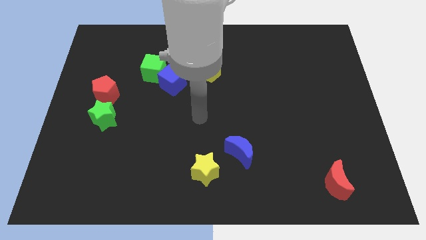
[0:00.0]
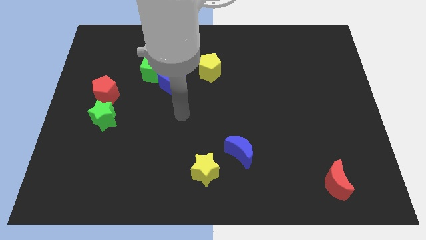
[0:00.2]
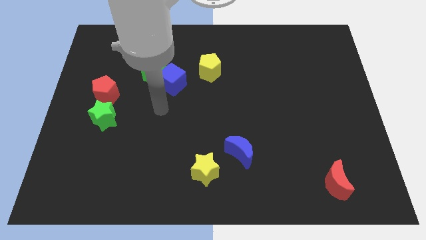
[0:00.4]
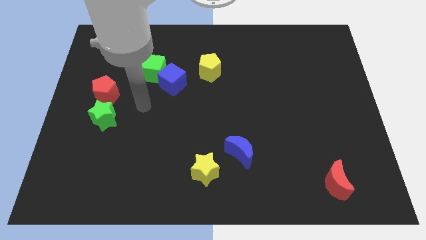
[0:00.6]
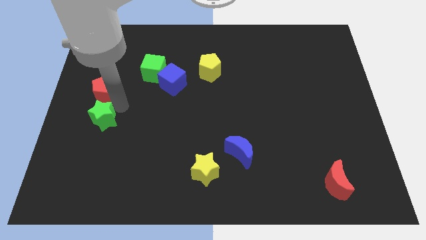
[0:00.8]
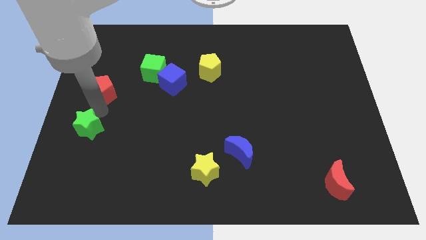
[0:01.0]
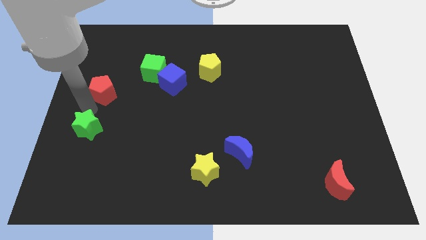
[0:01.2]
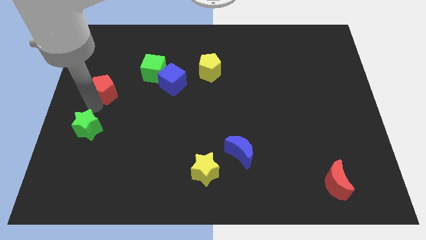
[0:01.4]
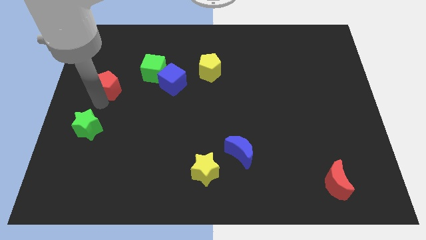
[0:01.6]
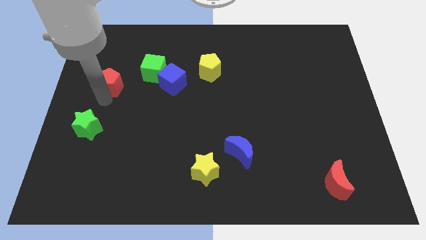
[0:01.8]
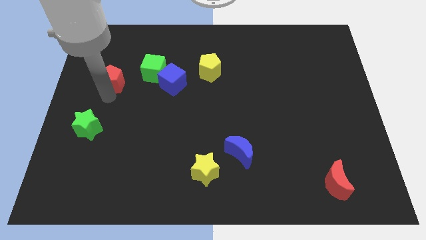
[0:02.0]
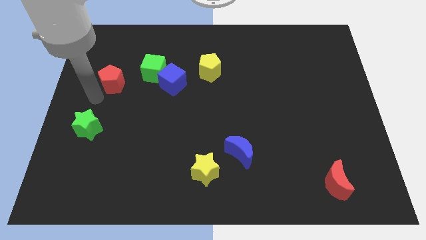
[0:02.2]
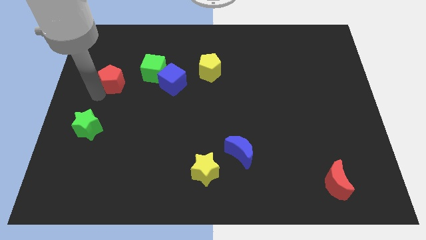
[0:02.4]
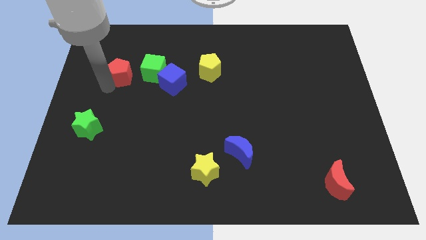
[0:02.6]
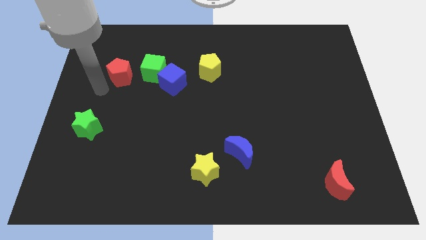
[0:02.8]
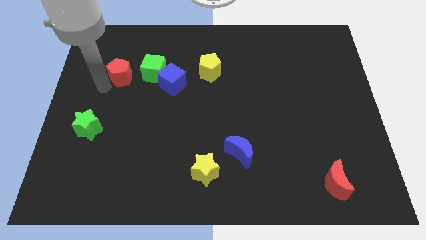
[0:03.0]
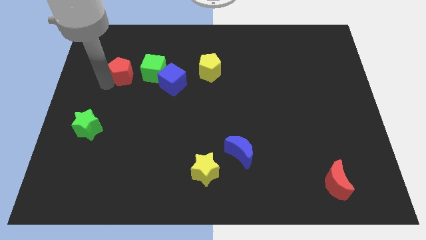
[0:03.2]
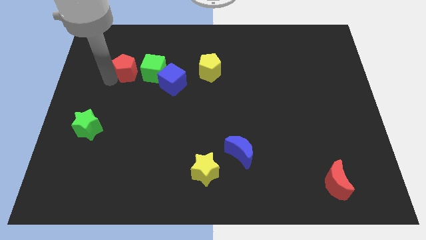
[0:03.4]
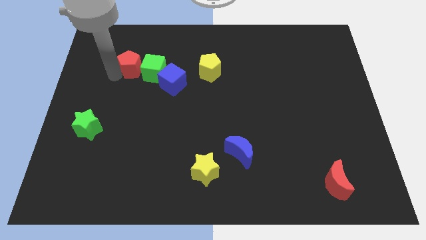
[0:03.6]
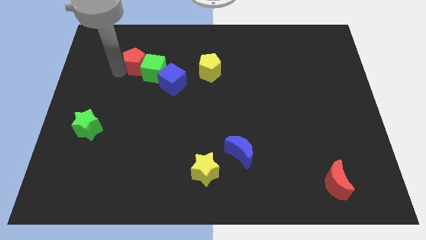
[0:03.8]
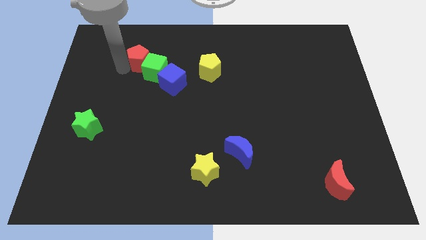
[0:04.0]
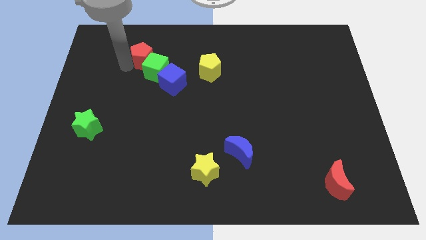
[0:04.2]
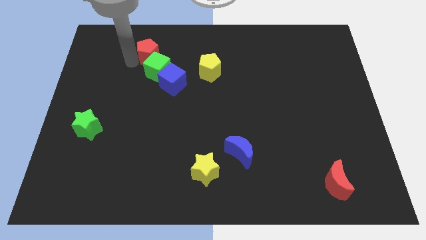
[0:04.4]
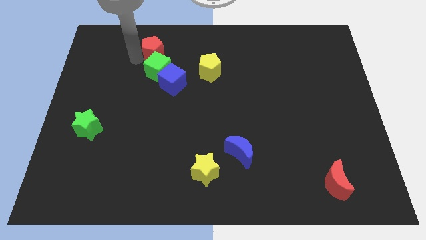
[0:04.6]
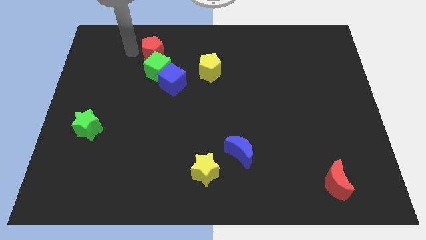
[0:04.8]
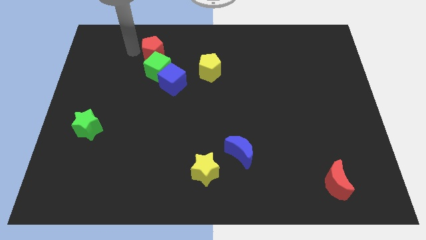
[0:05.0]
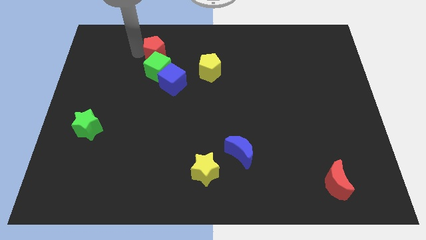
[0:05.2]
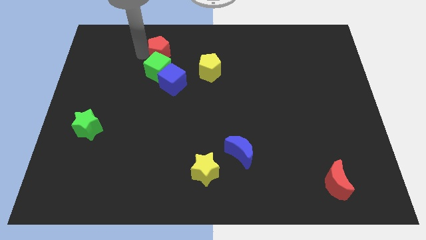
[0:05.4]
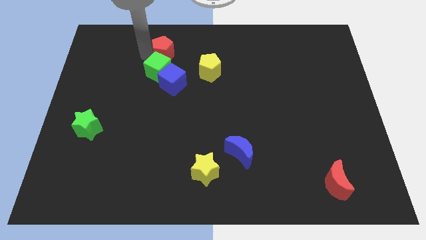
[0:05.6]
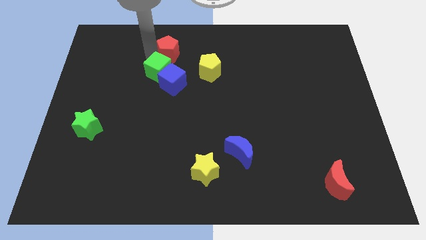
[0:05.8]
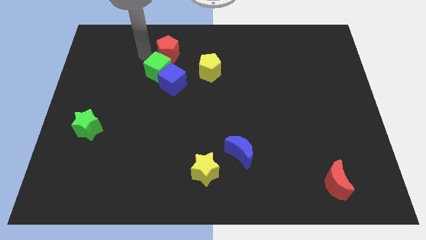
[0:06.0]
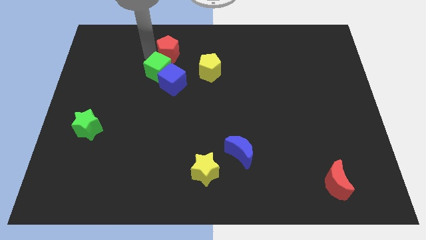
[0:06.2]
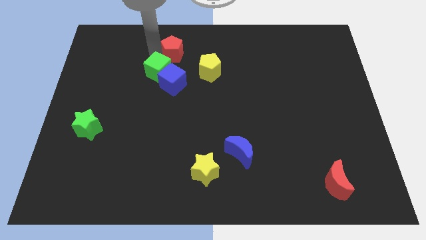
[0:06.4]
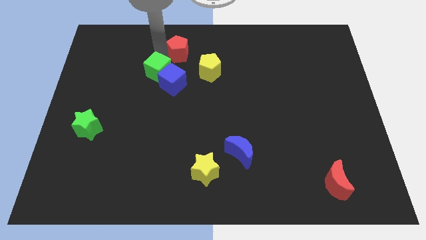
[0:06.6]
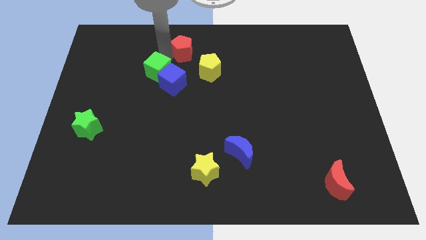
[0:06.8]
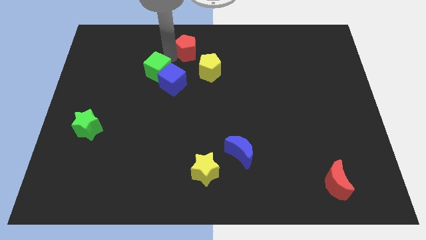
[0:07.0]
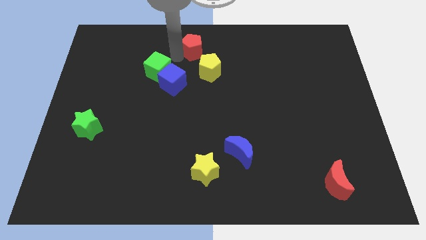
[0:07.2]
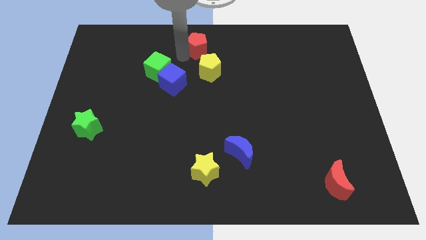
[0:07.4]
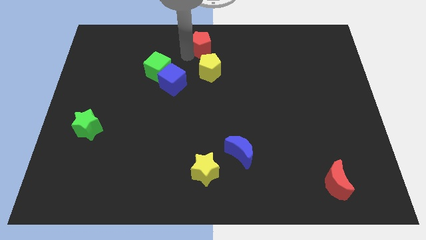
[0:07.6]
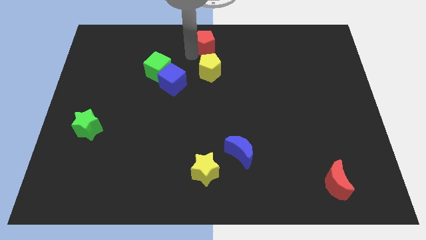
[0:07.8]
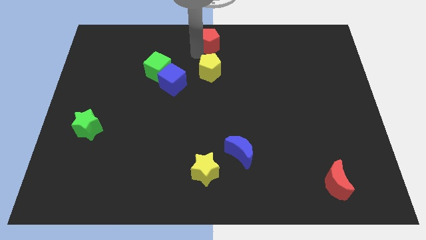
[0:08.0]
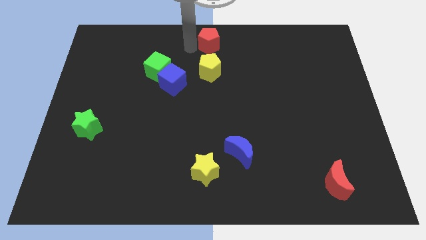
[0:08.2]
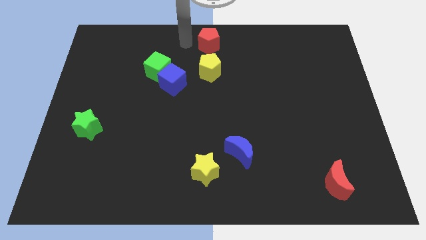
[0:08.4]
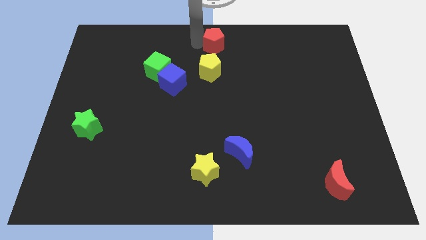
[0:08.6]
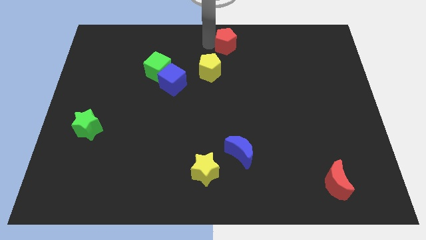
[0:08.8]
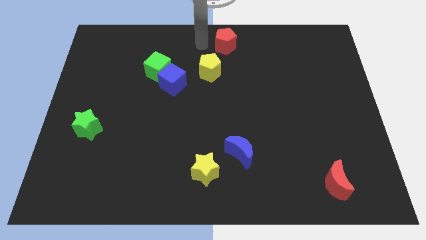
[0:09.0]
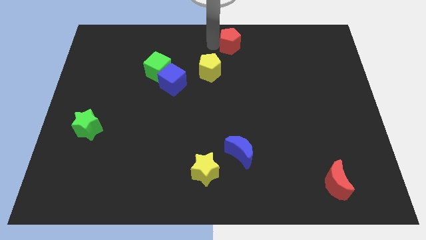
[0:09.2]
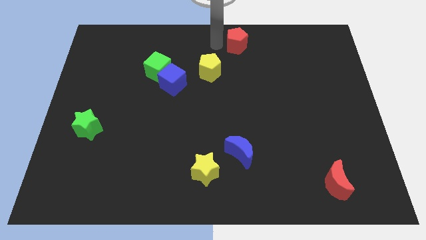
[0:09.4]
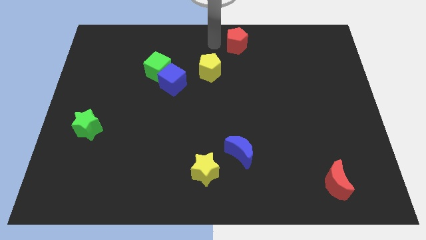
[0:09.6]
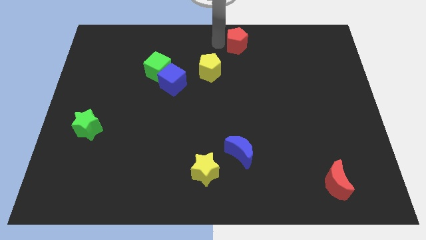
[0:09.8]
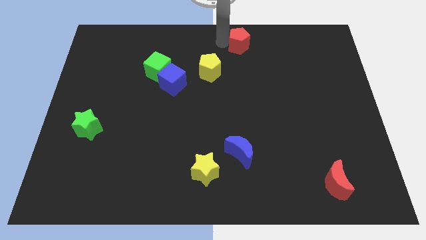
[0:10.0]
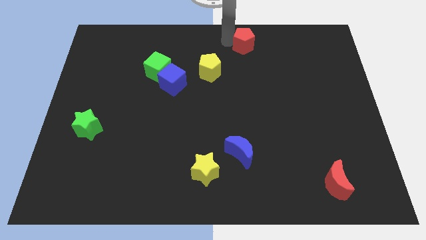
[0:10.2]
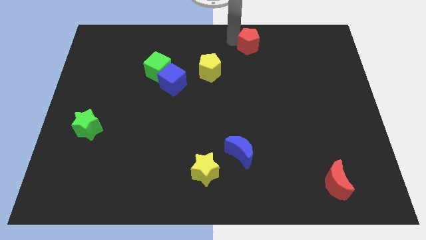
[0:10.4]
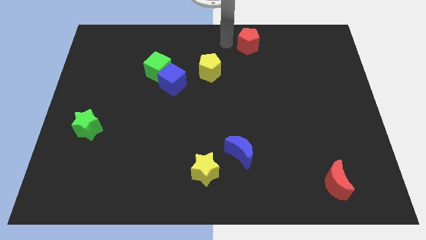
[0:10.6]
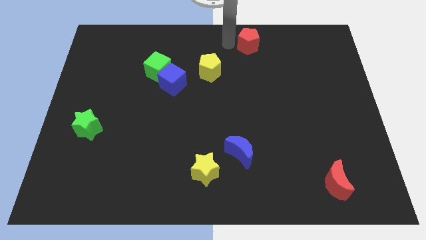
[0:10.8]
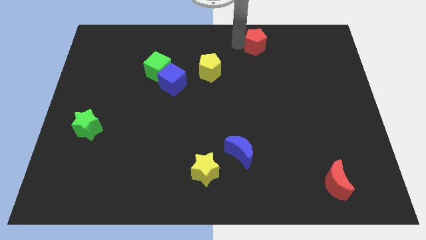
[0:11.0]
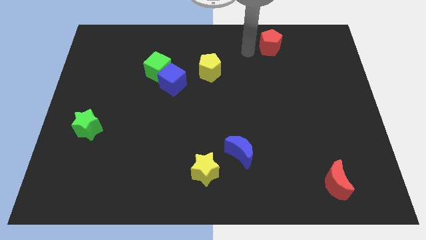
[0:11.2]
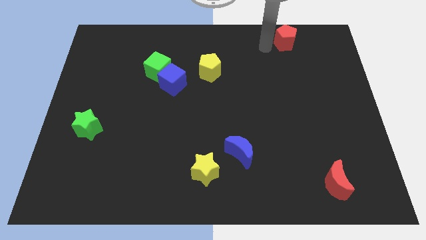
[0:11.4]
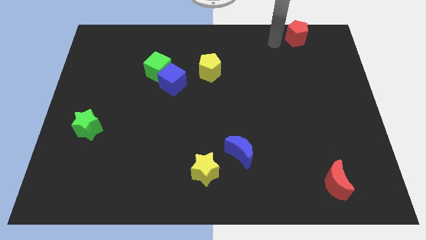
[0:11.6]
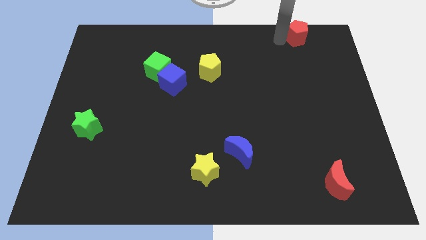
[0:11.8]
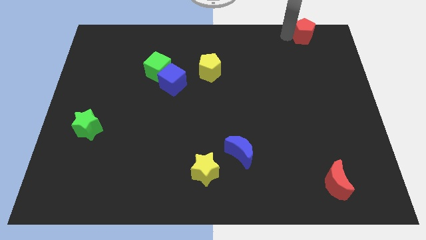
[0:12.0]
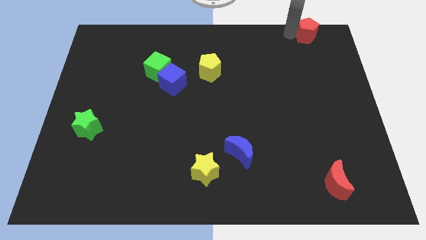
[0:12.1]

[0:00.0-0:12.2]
slide the red pentagon to the top right

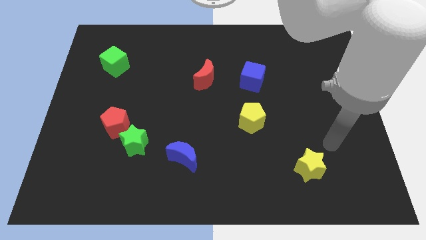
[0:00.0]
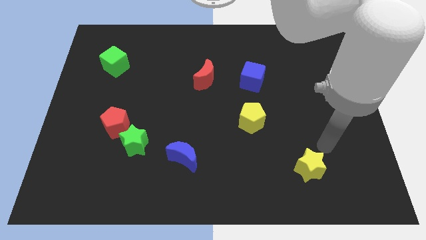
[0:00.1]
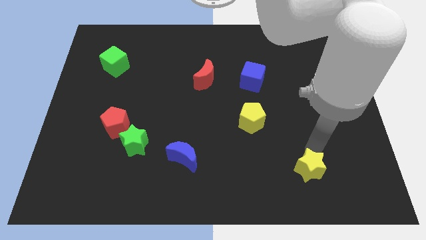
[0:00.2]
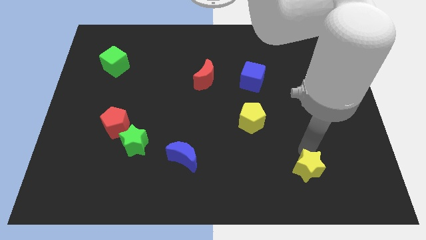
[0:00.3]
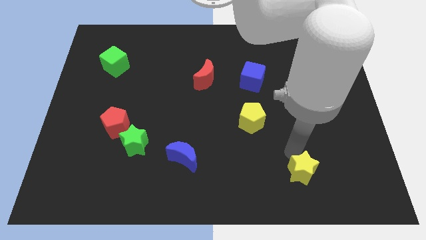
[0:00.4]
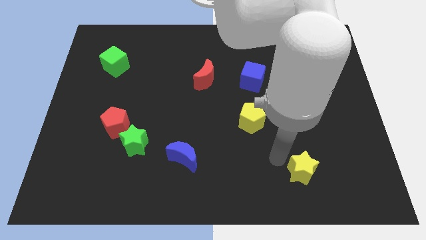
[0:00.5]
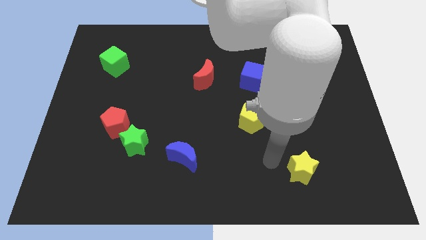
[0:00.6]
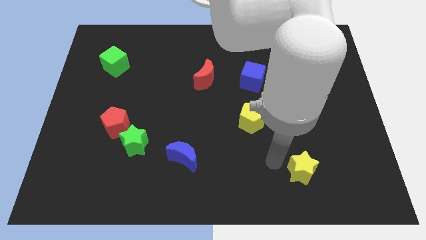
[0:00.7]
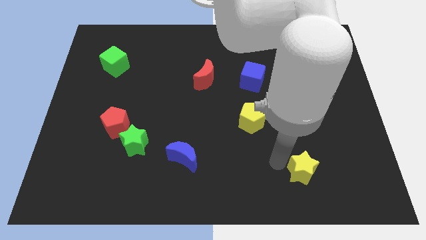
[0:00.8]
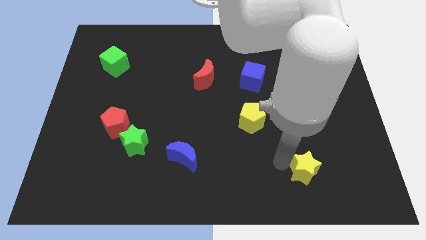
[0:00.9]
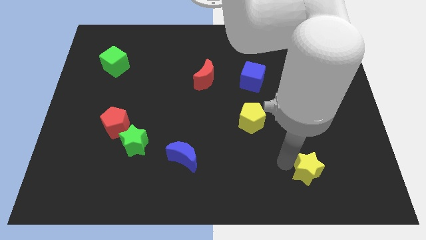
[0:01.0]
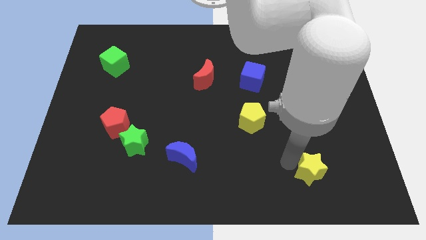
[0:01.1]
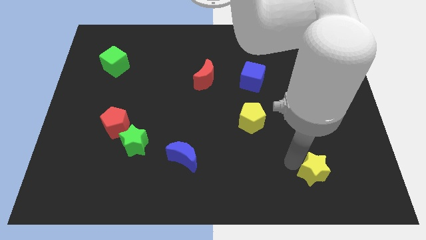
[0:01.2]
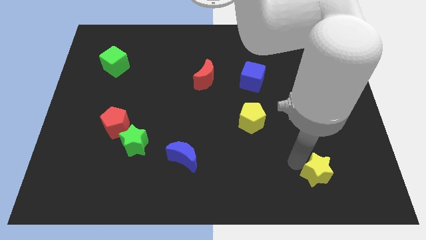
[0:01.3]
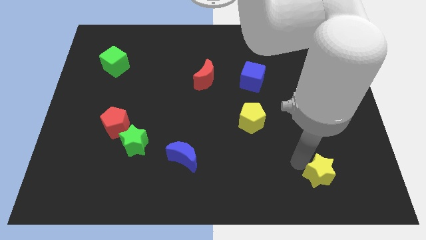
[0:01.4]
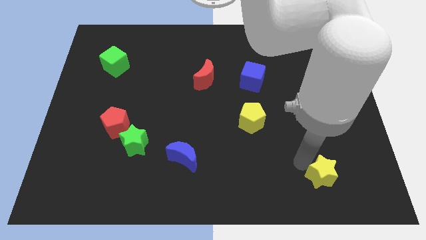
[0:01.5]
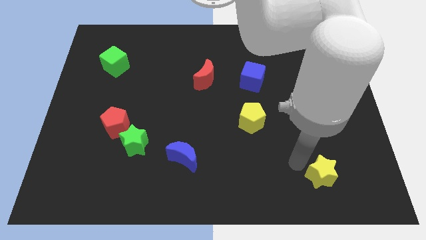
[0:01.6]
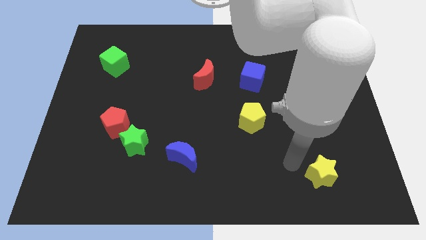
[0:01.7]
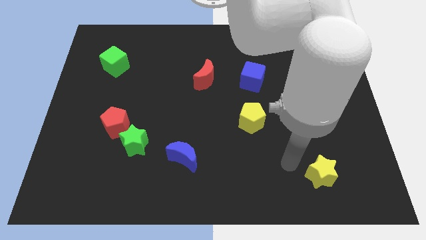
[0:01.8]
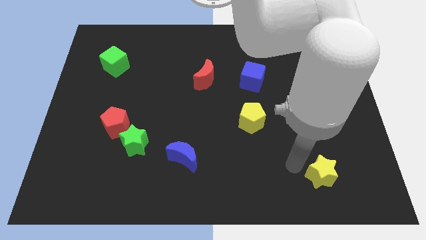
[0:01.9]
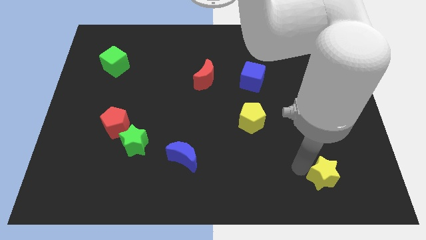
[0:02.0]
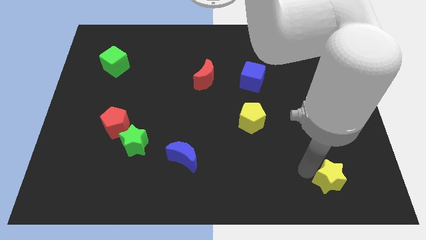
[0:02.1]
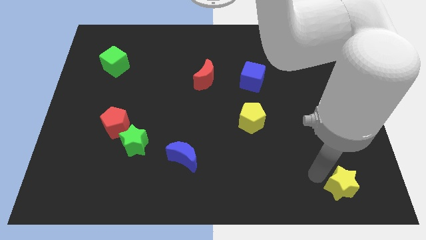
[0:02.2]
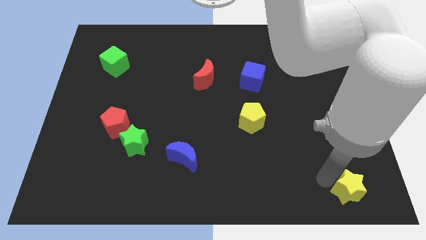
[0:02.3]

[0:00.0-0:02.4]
put the yellow star to the lower right corner
